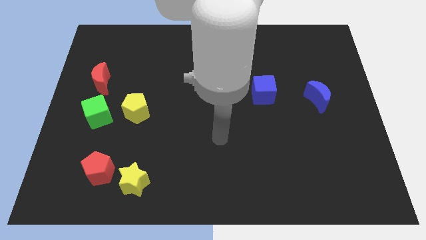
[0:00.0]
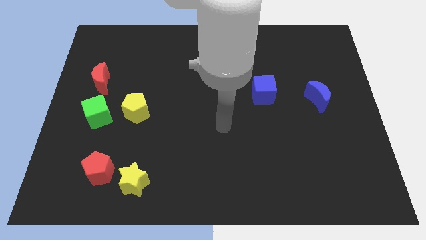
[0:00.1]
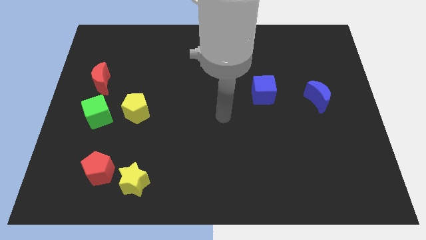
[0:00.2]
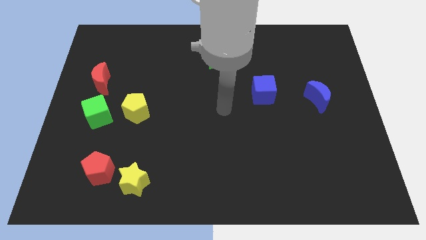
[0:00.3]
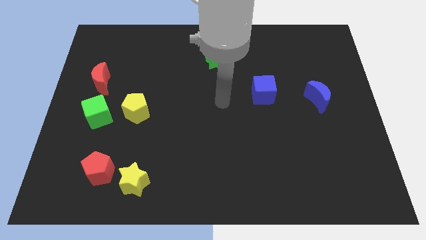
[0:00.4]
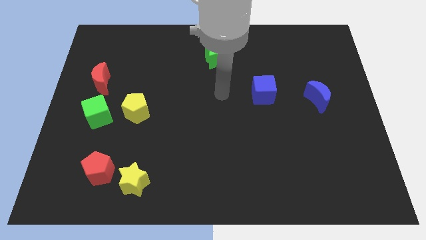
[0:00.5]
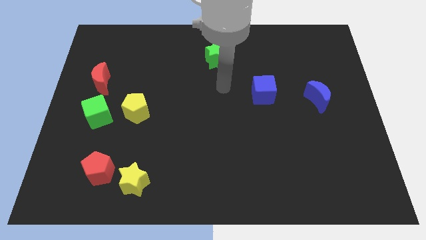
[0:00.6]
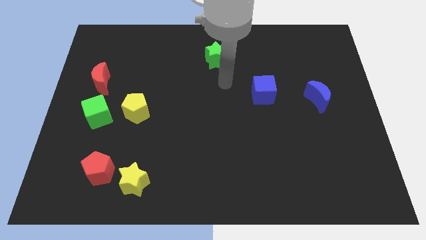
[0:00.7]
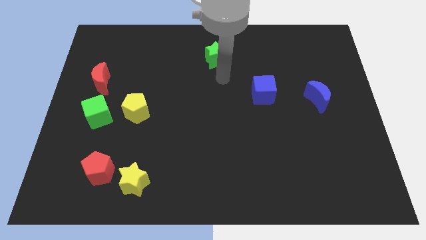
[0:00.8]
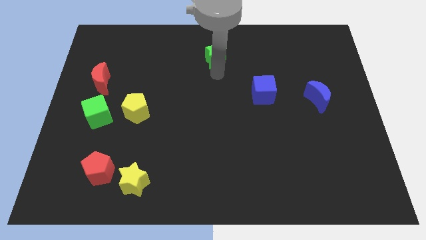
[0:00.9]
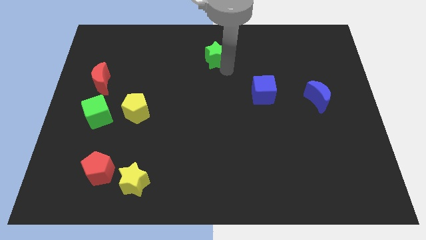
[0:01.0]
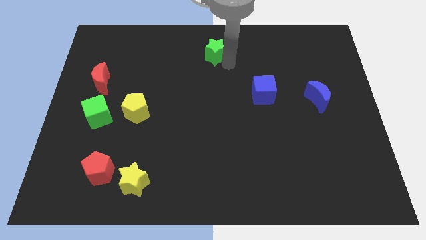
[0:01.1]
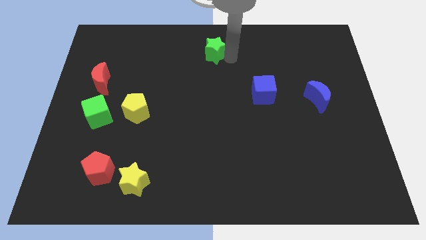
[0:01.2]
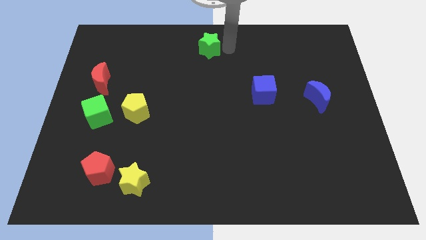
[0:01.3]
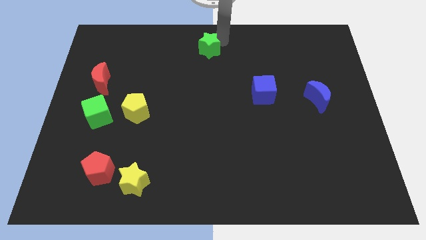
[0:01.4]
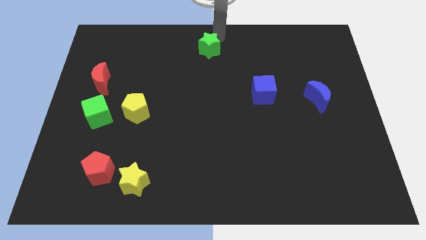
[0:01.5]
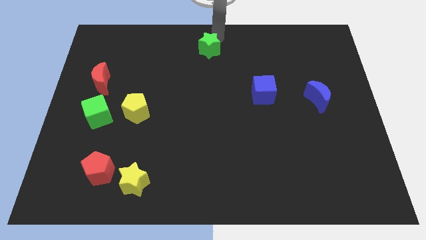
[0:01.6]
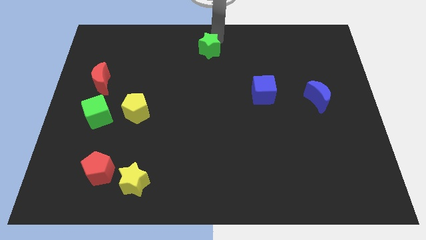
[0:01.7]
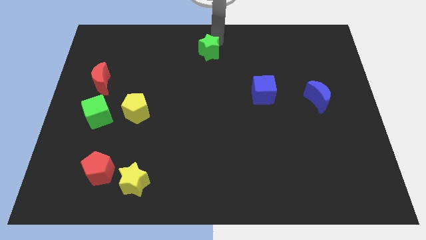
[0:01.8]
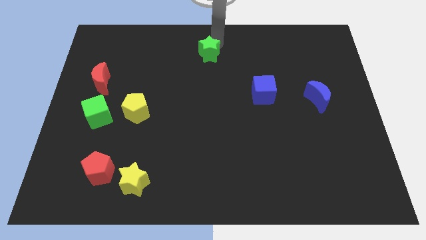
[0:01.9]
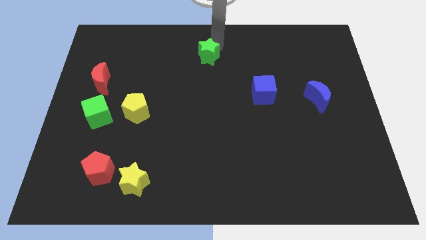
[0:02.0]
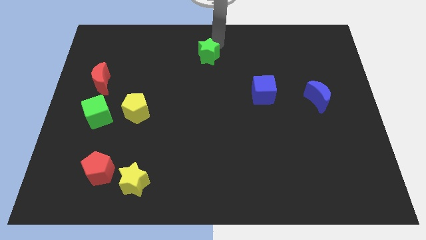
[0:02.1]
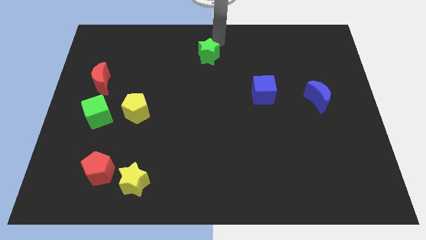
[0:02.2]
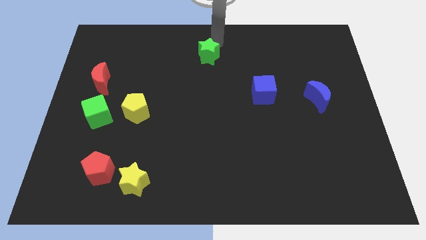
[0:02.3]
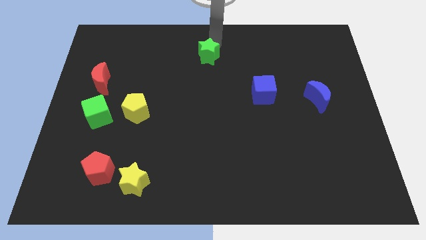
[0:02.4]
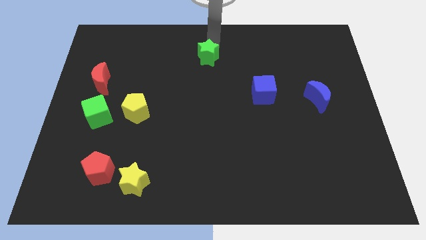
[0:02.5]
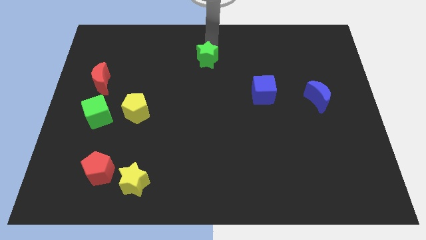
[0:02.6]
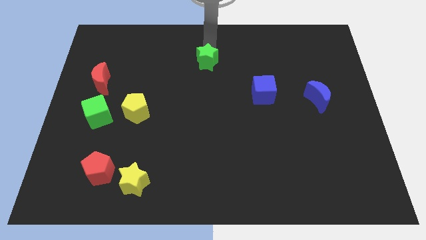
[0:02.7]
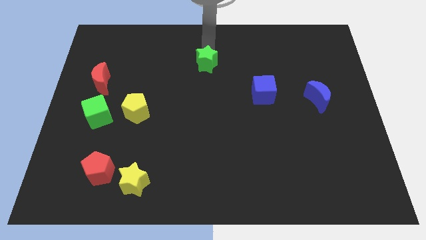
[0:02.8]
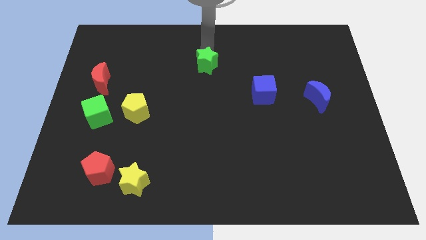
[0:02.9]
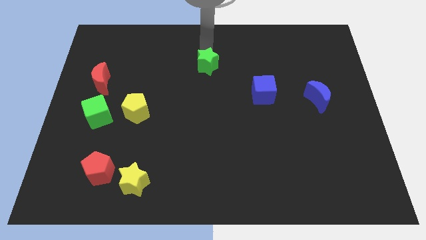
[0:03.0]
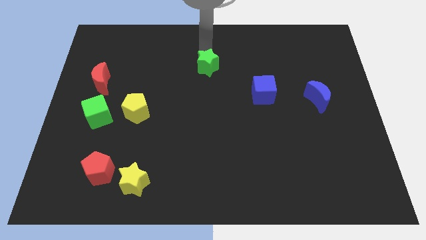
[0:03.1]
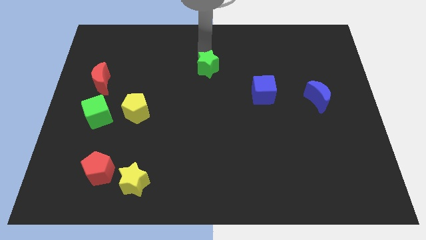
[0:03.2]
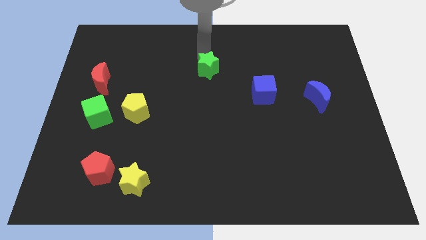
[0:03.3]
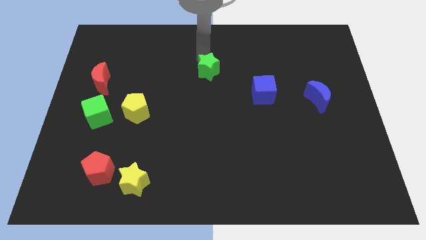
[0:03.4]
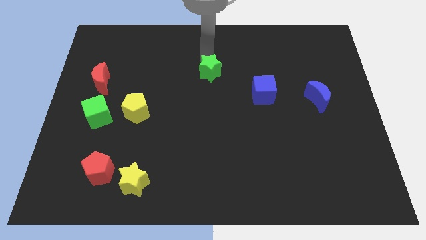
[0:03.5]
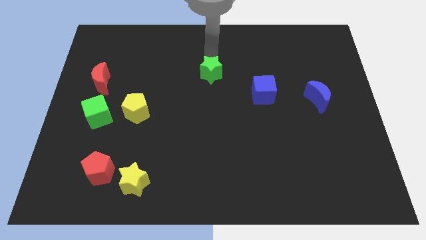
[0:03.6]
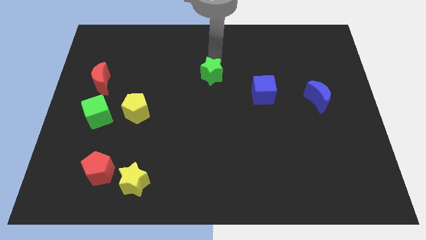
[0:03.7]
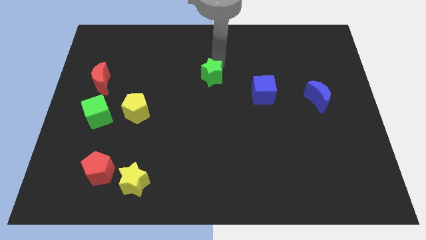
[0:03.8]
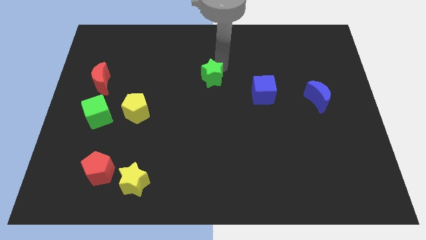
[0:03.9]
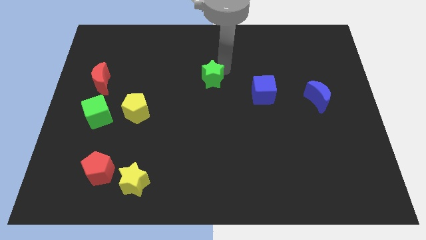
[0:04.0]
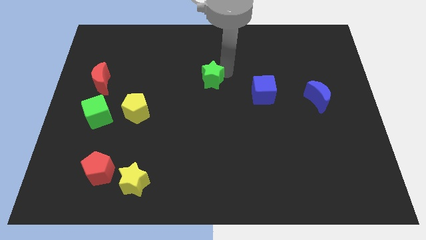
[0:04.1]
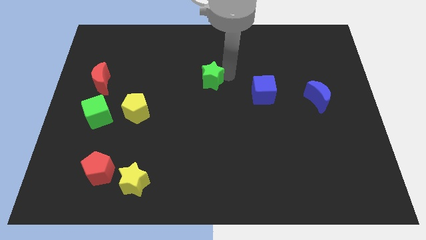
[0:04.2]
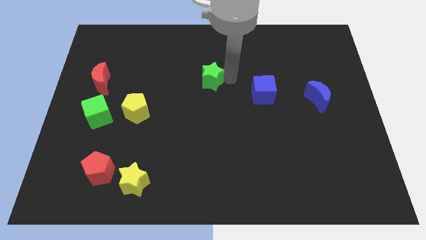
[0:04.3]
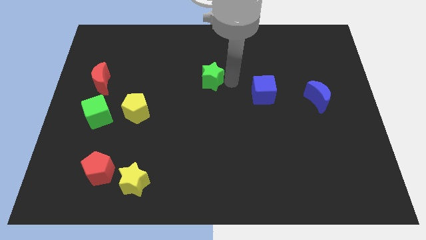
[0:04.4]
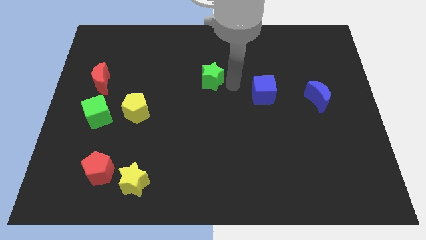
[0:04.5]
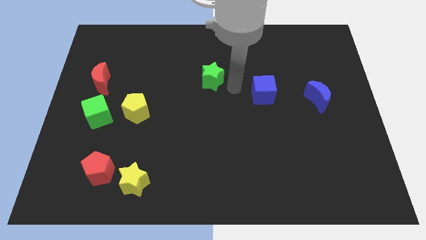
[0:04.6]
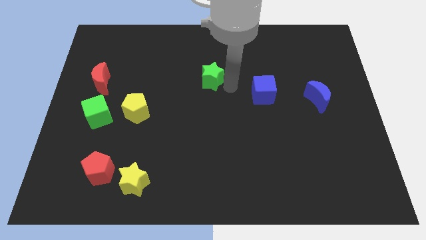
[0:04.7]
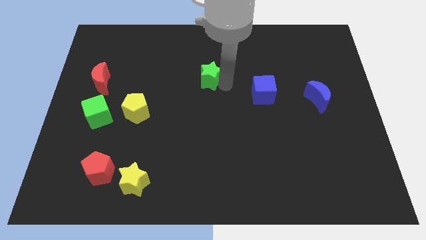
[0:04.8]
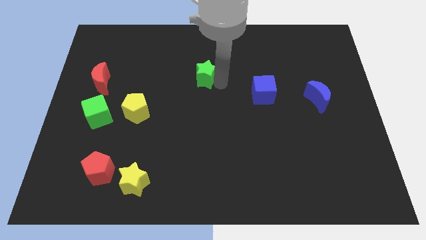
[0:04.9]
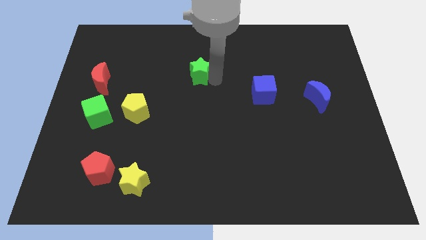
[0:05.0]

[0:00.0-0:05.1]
slightly move the green star down and then to the left

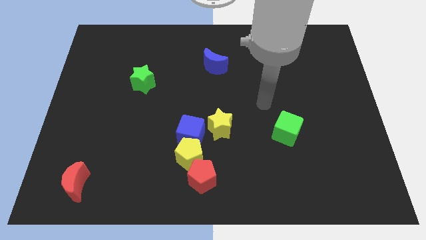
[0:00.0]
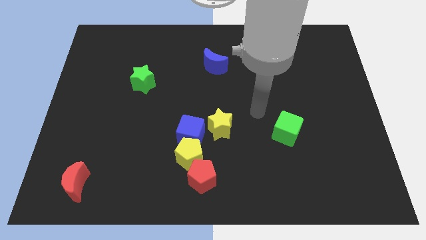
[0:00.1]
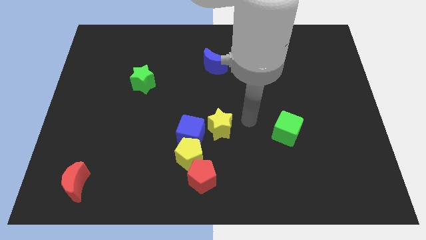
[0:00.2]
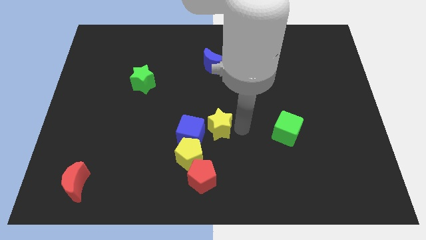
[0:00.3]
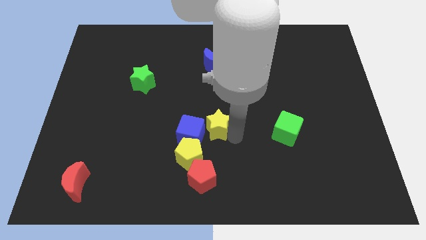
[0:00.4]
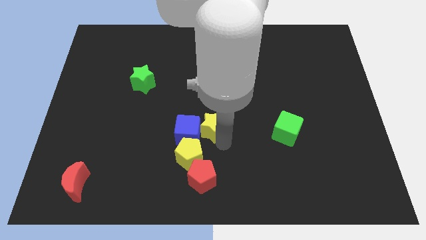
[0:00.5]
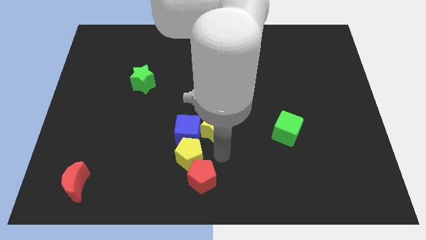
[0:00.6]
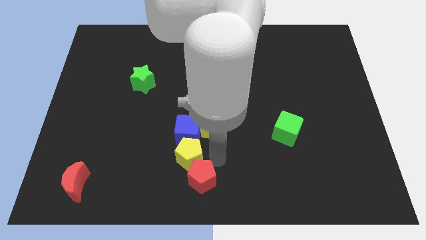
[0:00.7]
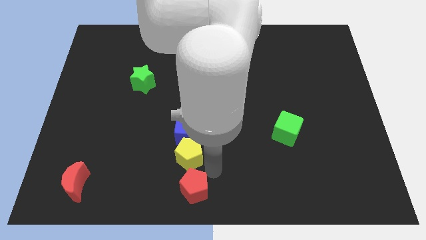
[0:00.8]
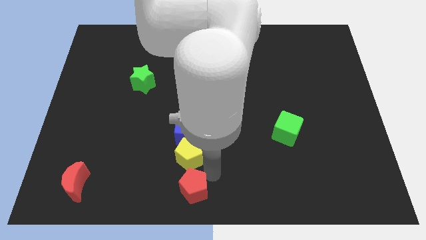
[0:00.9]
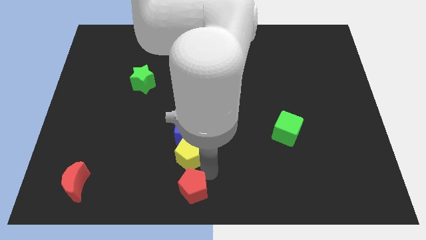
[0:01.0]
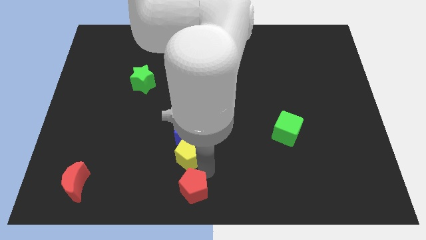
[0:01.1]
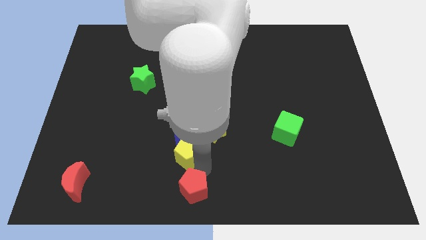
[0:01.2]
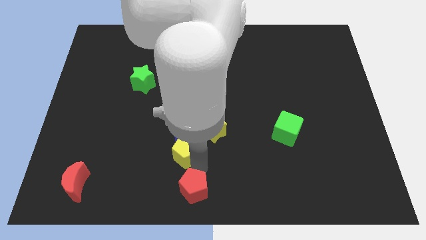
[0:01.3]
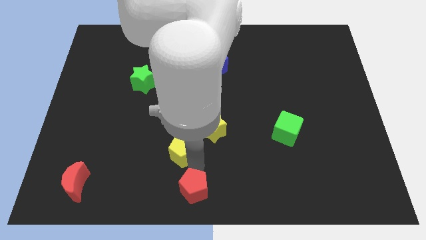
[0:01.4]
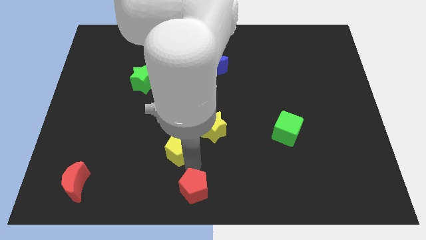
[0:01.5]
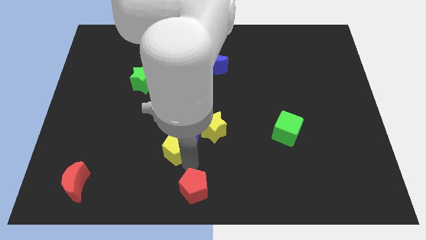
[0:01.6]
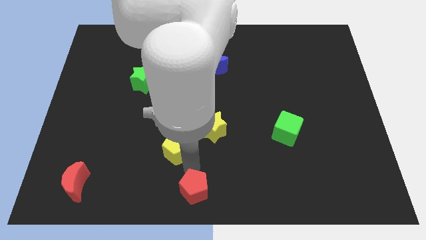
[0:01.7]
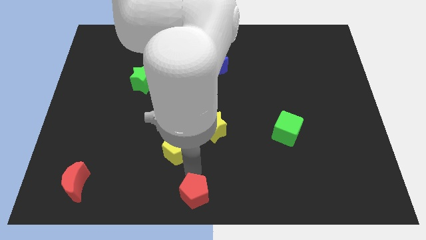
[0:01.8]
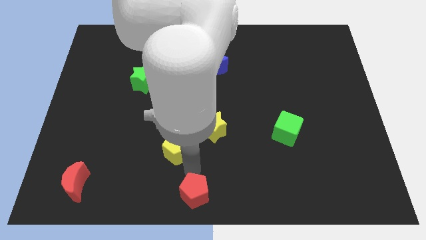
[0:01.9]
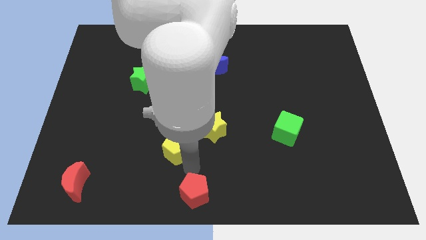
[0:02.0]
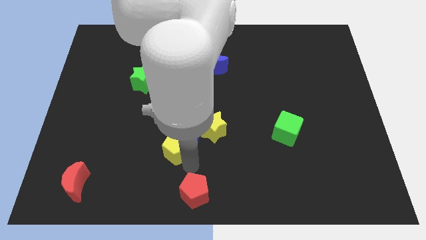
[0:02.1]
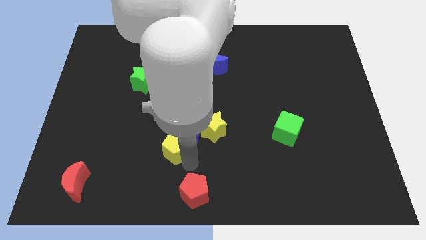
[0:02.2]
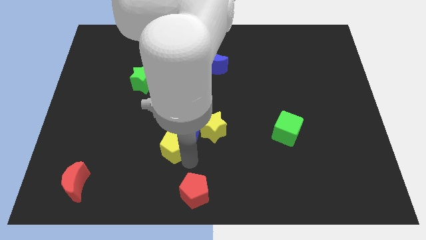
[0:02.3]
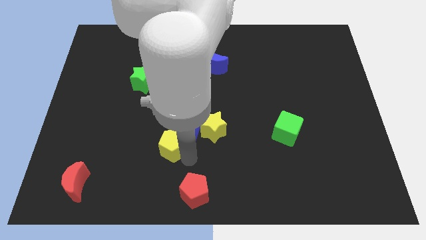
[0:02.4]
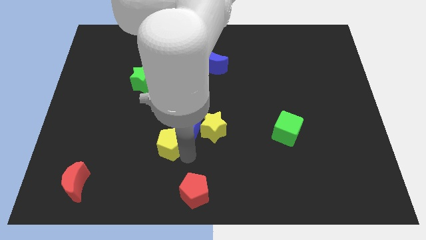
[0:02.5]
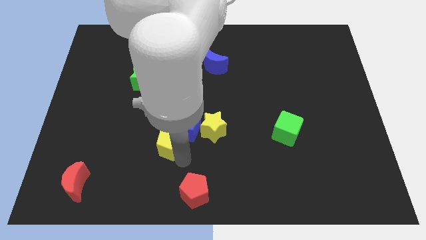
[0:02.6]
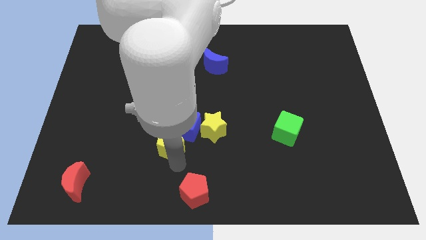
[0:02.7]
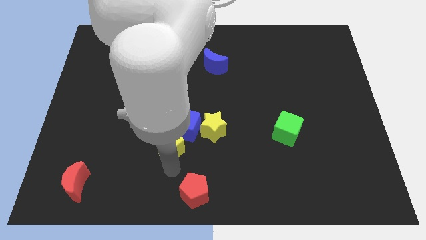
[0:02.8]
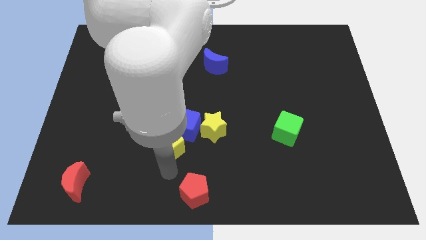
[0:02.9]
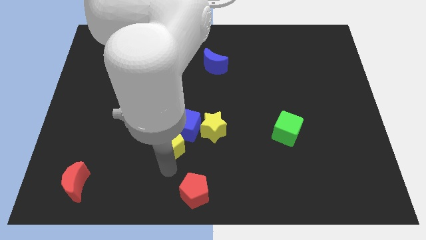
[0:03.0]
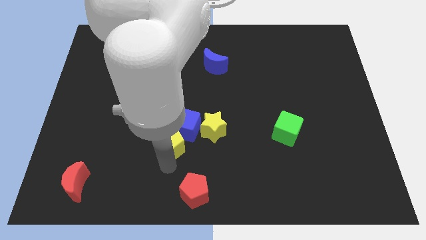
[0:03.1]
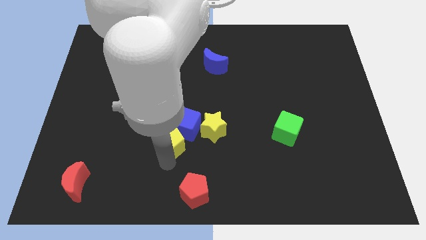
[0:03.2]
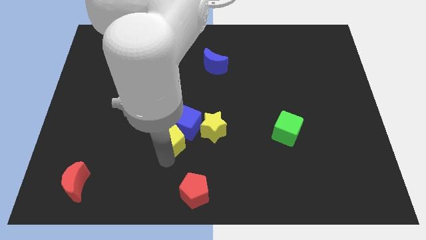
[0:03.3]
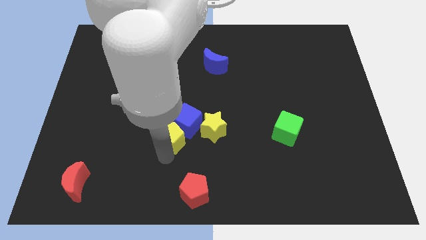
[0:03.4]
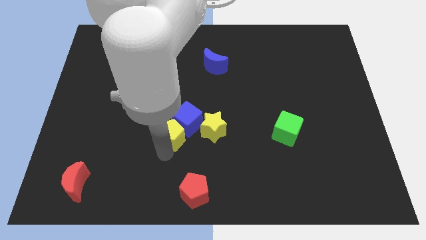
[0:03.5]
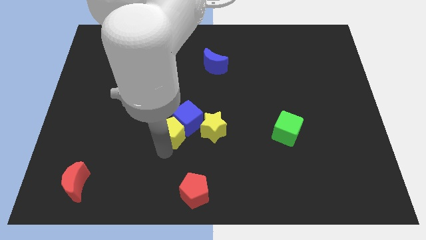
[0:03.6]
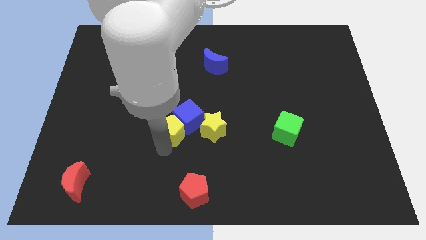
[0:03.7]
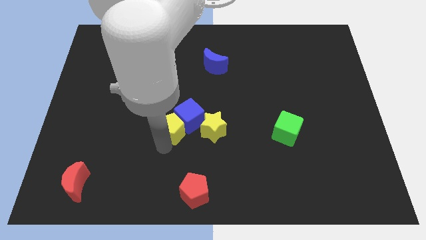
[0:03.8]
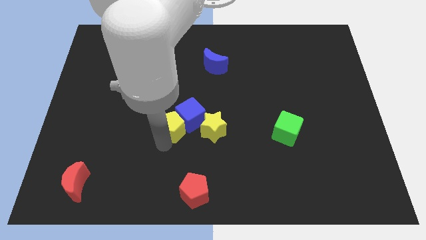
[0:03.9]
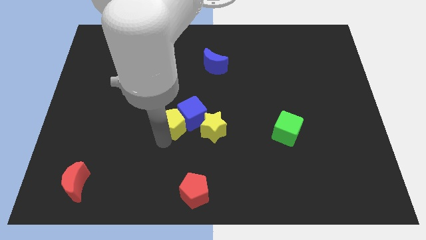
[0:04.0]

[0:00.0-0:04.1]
move the yellow pentagon somewhat up
